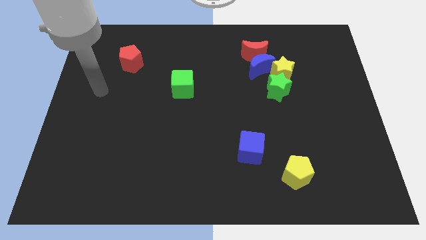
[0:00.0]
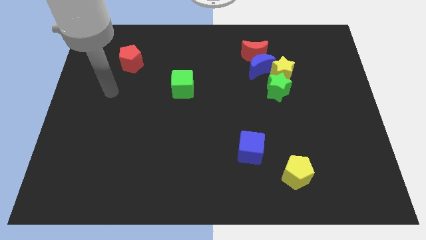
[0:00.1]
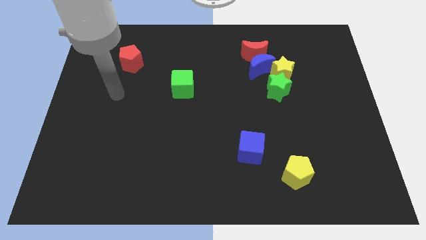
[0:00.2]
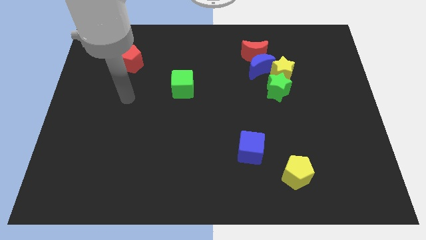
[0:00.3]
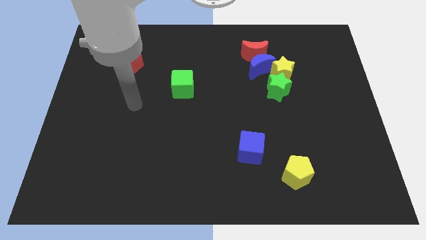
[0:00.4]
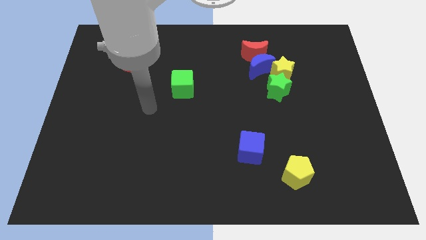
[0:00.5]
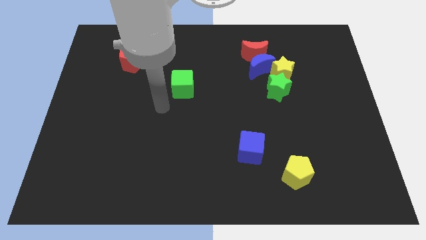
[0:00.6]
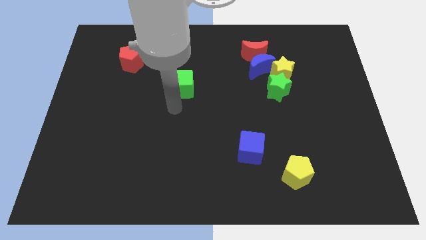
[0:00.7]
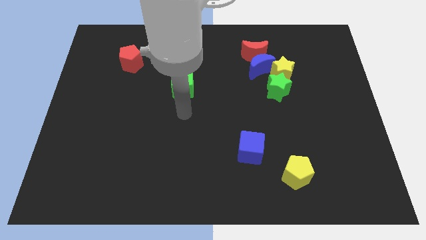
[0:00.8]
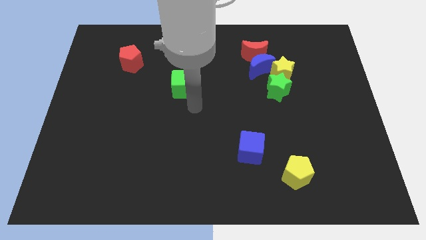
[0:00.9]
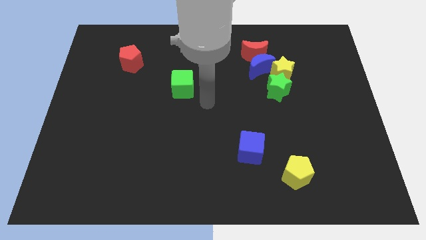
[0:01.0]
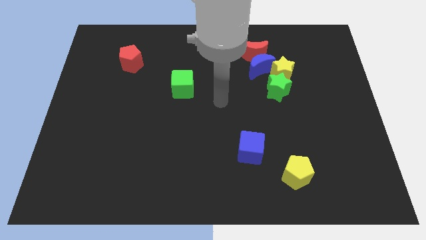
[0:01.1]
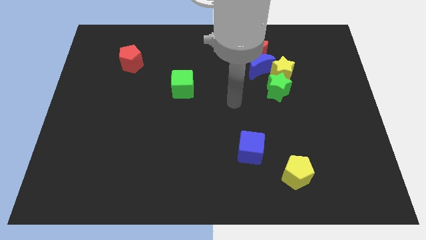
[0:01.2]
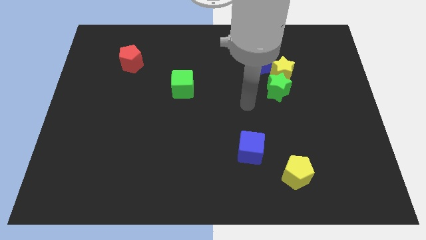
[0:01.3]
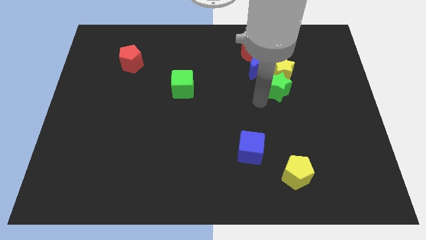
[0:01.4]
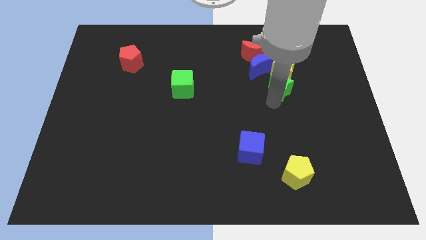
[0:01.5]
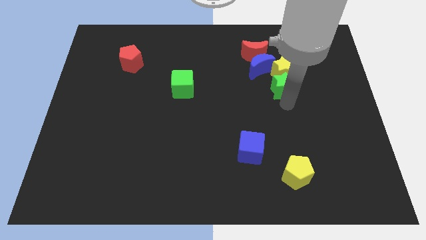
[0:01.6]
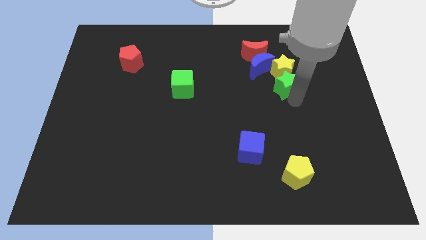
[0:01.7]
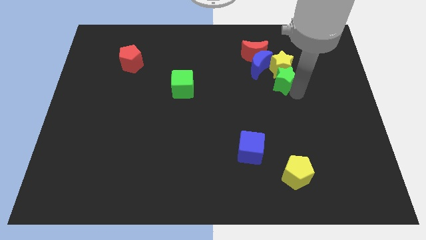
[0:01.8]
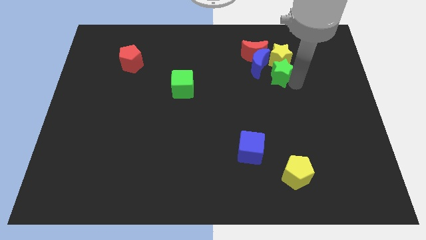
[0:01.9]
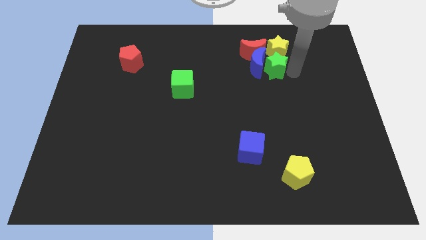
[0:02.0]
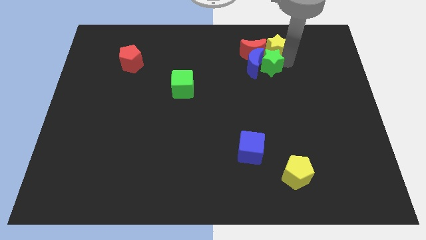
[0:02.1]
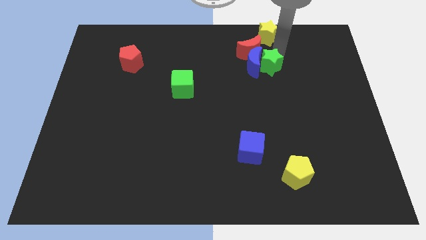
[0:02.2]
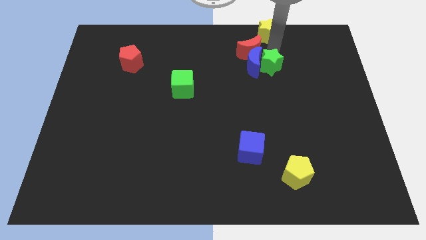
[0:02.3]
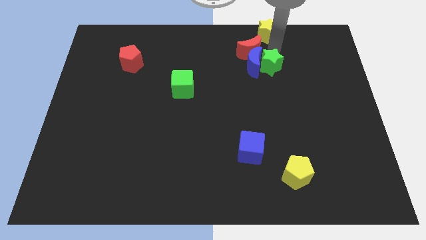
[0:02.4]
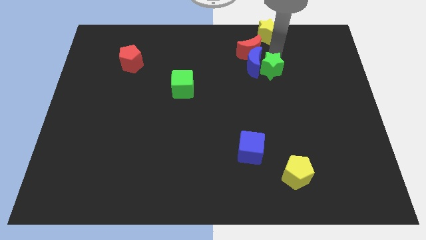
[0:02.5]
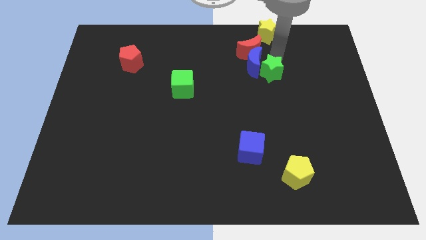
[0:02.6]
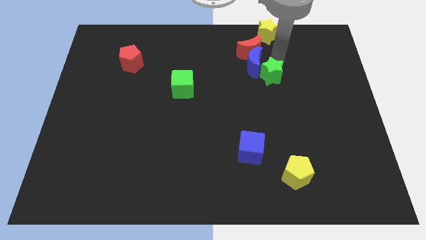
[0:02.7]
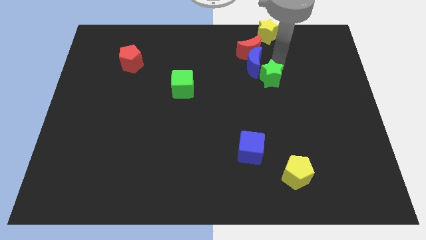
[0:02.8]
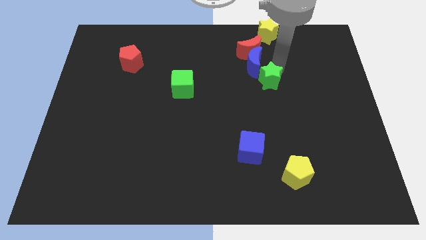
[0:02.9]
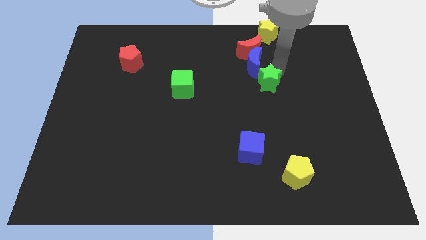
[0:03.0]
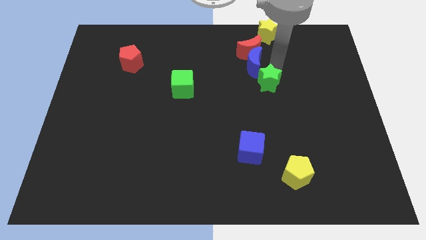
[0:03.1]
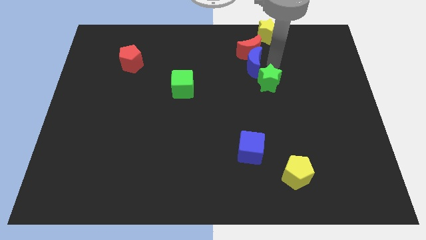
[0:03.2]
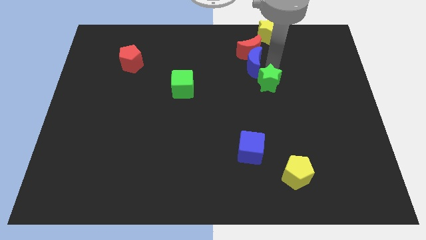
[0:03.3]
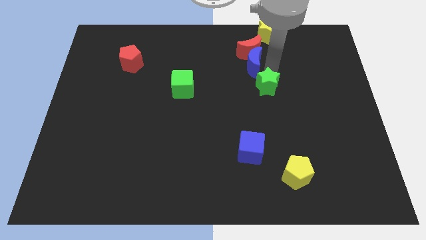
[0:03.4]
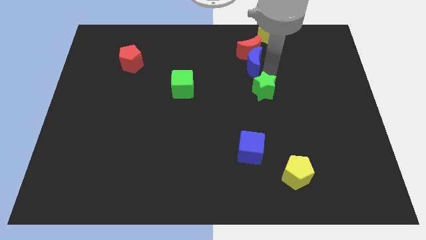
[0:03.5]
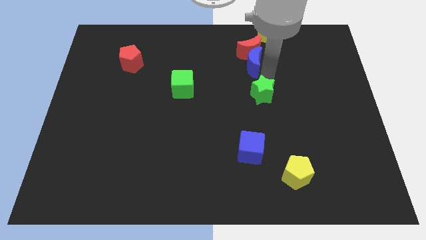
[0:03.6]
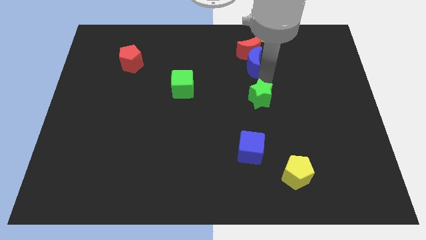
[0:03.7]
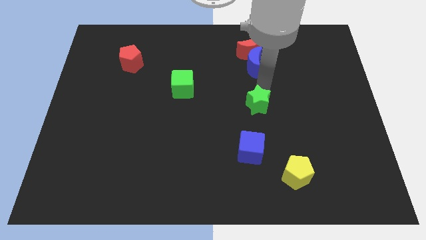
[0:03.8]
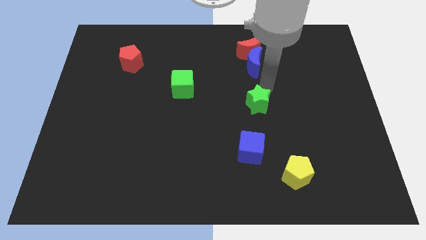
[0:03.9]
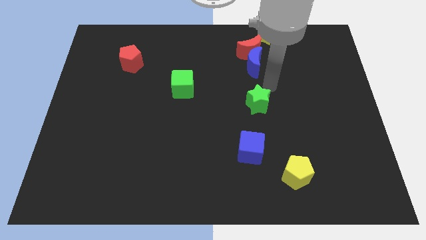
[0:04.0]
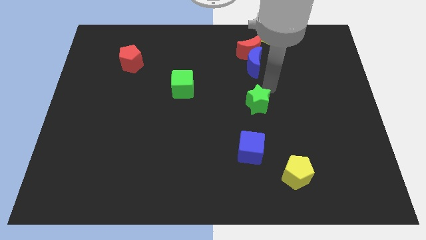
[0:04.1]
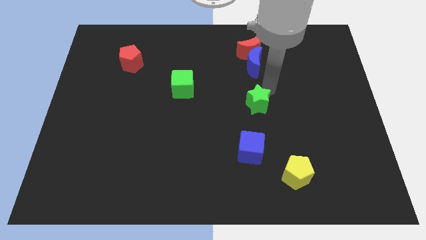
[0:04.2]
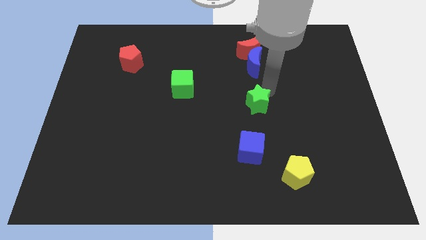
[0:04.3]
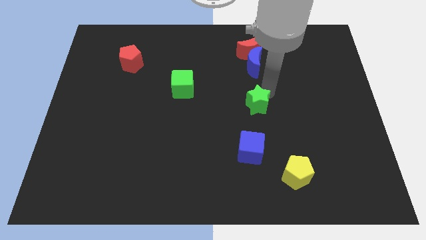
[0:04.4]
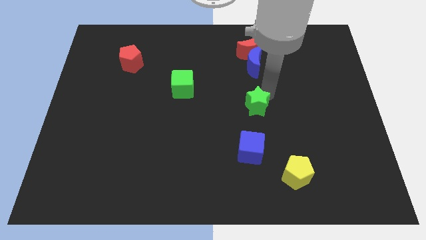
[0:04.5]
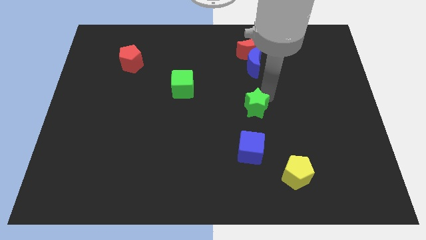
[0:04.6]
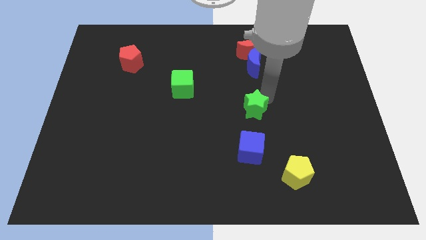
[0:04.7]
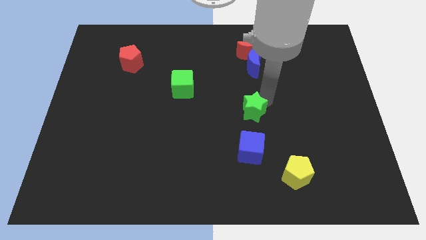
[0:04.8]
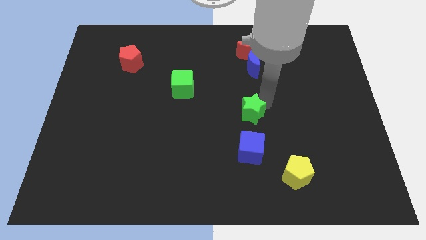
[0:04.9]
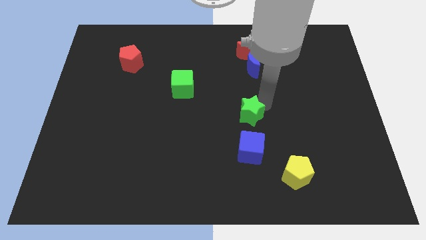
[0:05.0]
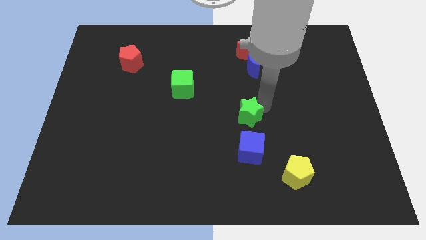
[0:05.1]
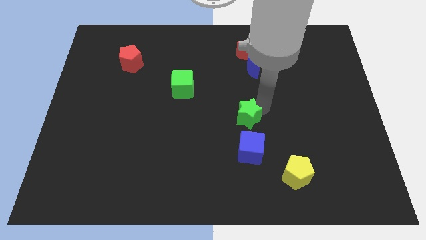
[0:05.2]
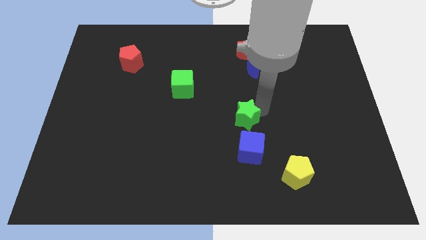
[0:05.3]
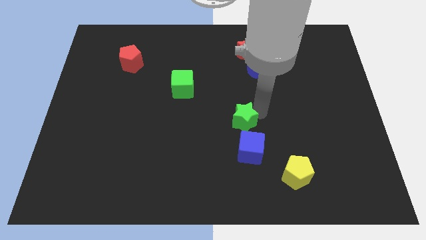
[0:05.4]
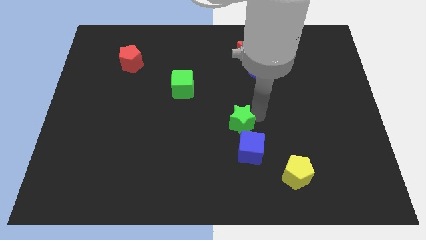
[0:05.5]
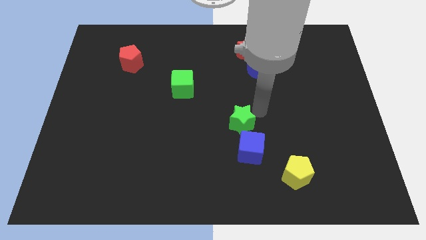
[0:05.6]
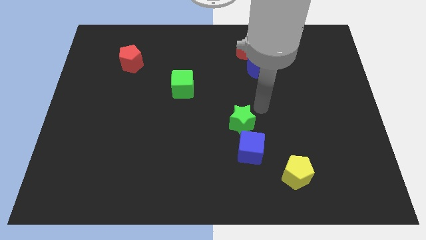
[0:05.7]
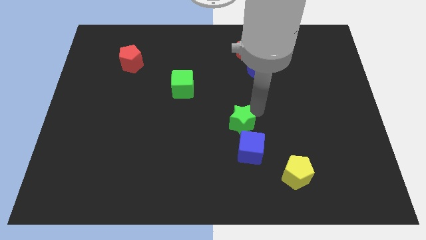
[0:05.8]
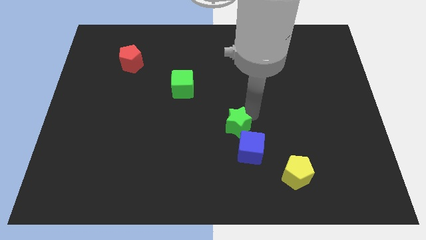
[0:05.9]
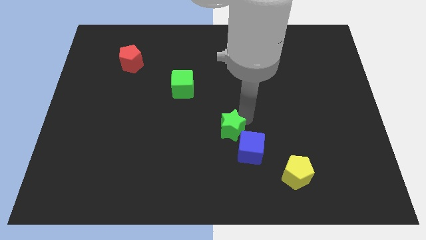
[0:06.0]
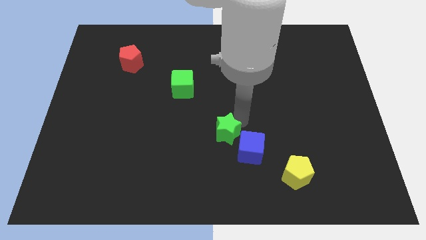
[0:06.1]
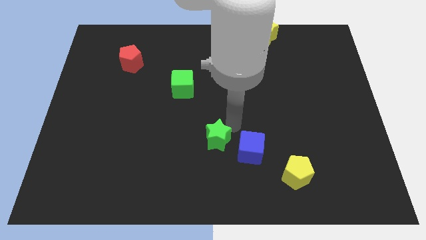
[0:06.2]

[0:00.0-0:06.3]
push the green star diagonally down and to the left

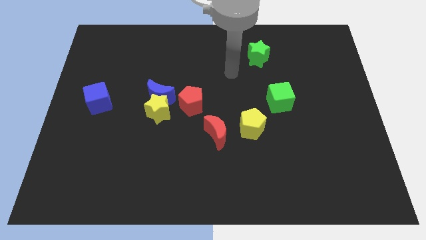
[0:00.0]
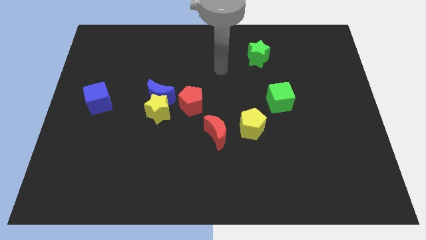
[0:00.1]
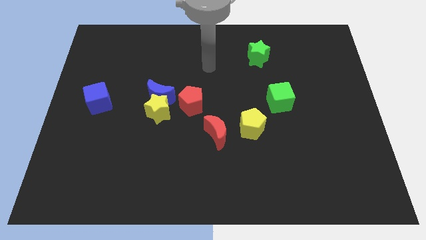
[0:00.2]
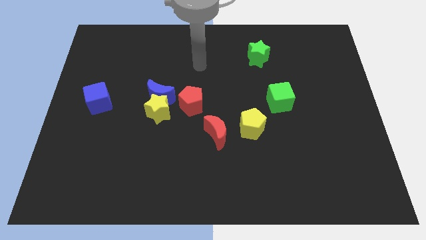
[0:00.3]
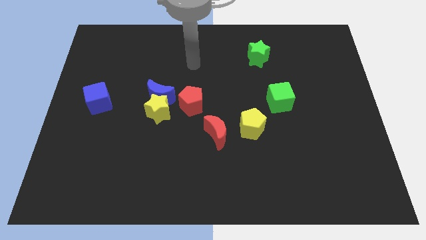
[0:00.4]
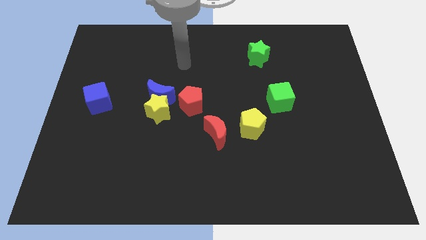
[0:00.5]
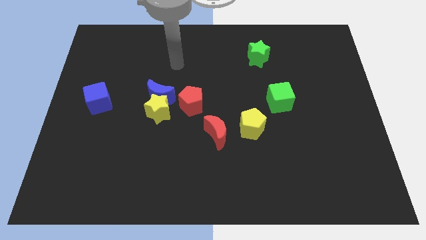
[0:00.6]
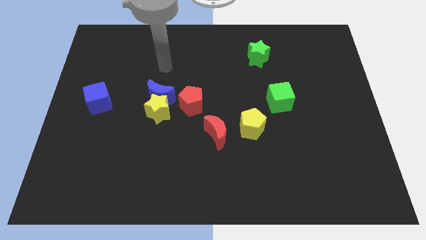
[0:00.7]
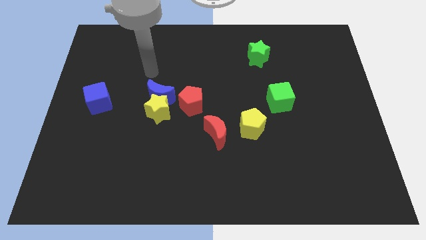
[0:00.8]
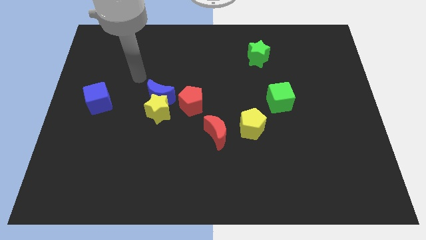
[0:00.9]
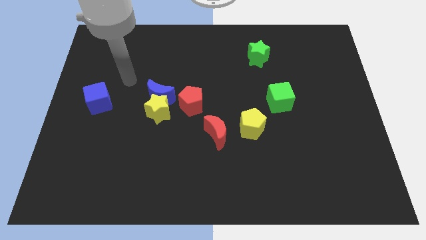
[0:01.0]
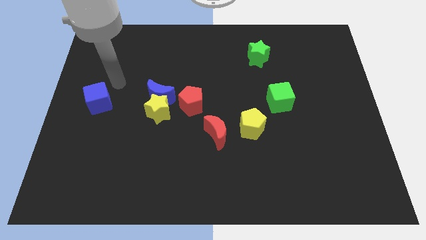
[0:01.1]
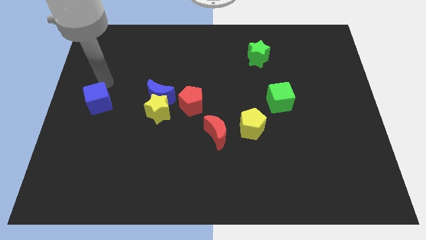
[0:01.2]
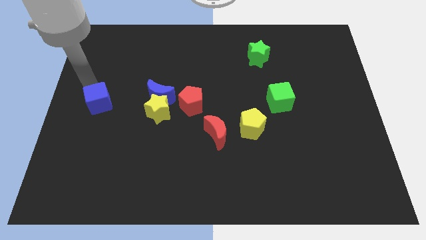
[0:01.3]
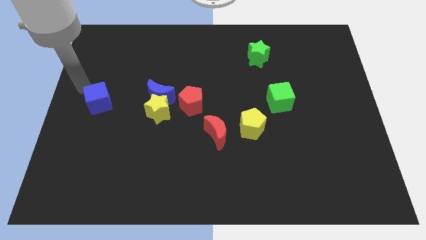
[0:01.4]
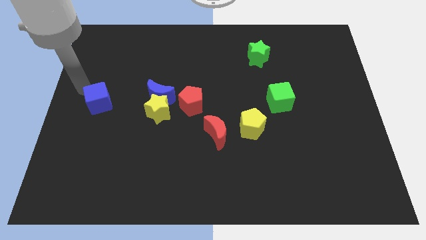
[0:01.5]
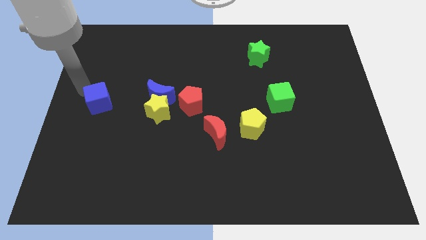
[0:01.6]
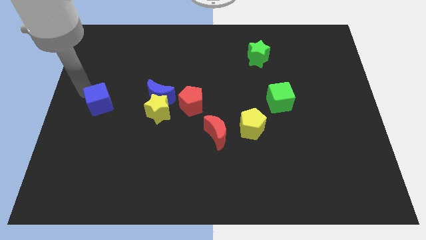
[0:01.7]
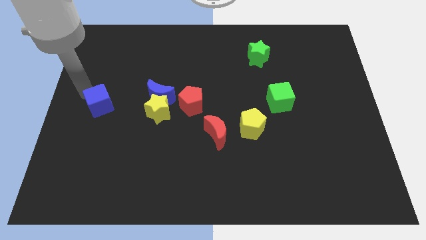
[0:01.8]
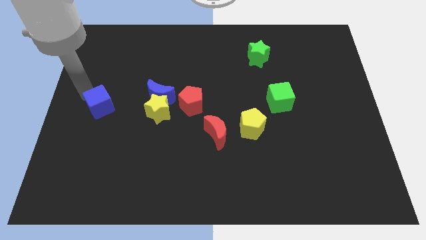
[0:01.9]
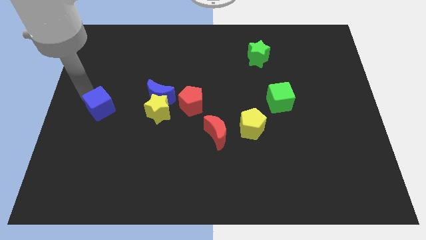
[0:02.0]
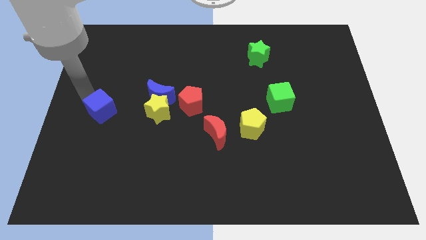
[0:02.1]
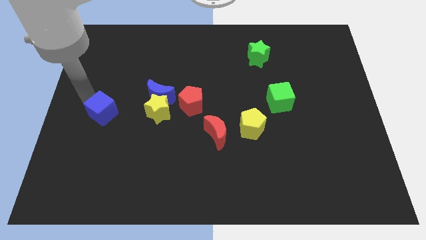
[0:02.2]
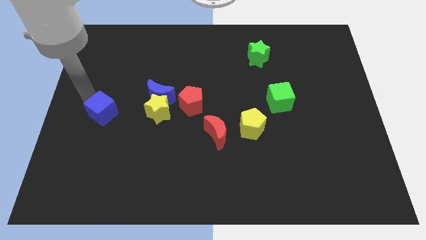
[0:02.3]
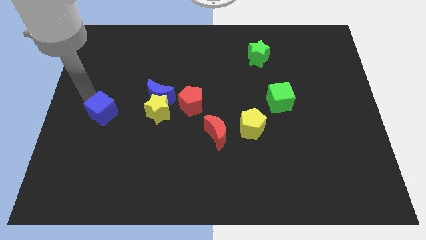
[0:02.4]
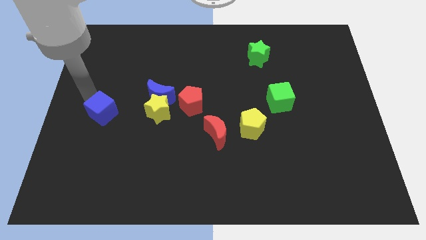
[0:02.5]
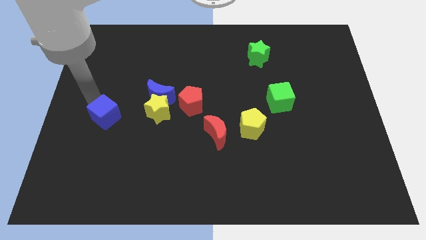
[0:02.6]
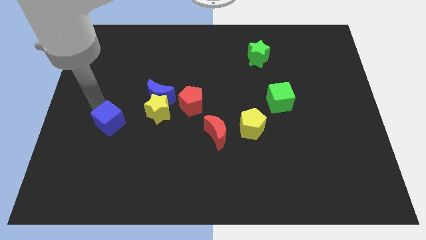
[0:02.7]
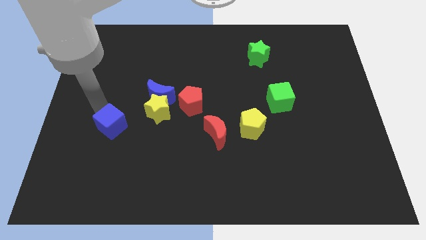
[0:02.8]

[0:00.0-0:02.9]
push the blue cube down and then right somewhat
